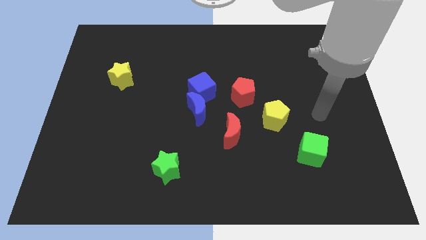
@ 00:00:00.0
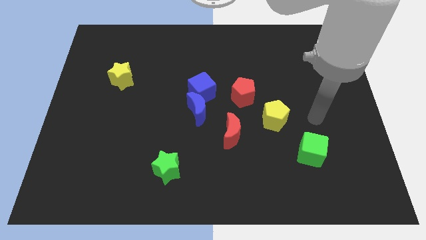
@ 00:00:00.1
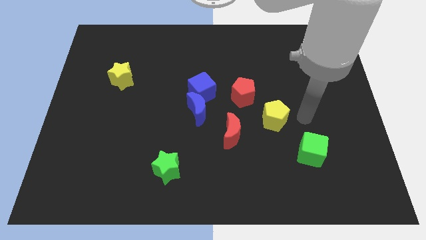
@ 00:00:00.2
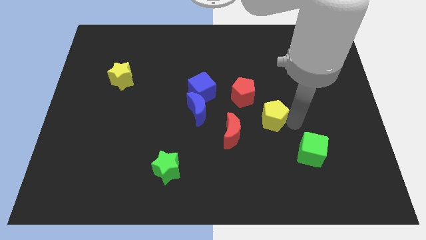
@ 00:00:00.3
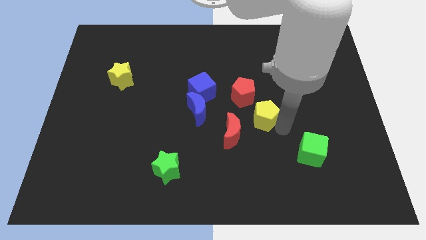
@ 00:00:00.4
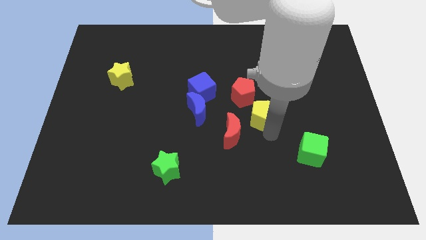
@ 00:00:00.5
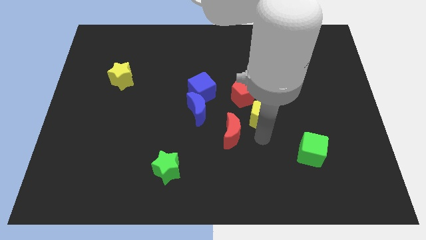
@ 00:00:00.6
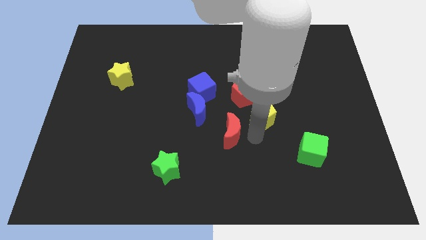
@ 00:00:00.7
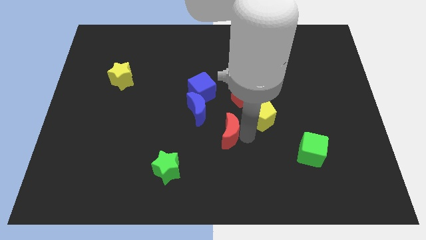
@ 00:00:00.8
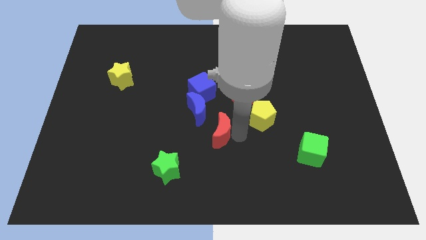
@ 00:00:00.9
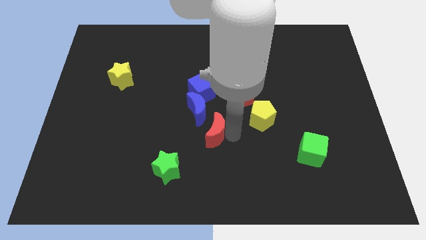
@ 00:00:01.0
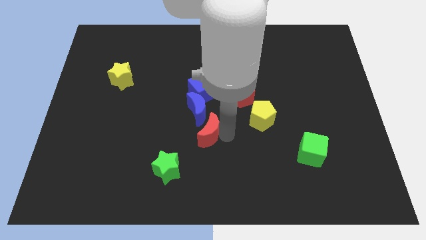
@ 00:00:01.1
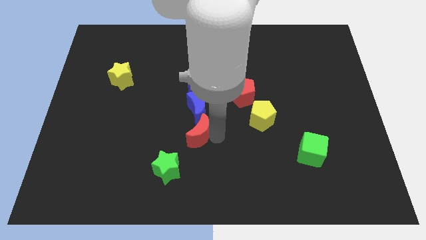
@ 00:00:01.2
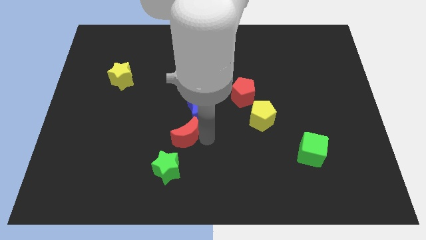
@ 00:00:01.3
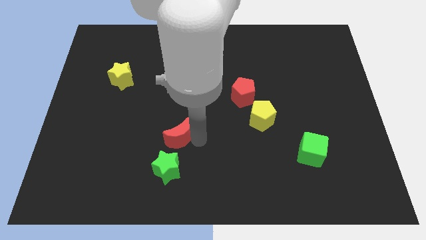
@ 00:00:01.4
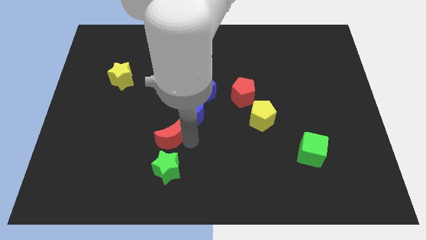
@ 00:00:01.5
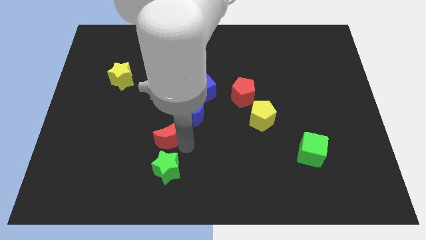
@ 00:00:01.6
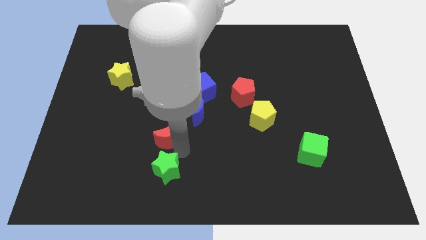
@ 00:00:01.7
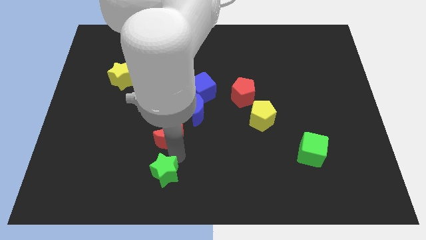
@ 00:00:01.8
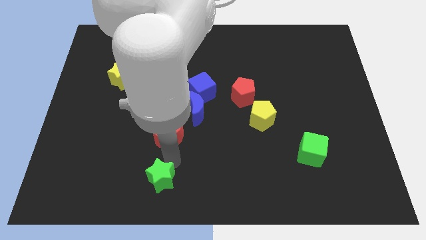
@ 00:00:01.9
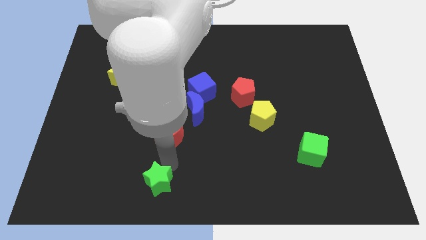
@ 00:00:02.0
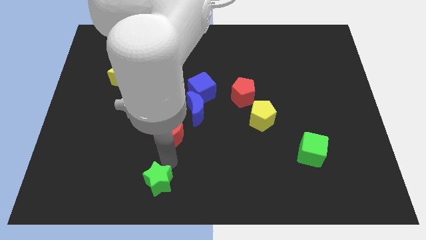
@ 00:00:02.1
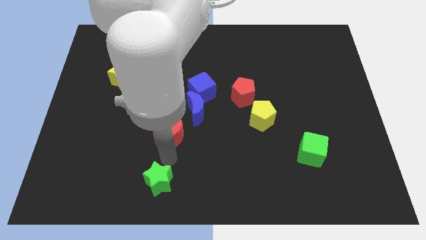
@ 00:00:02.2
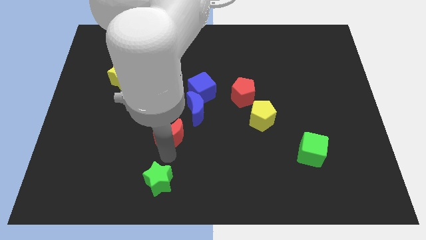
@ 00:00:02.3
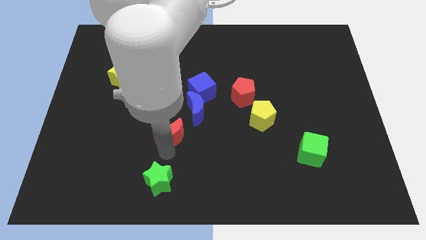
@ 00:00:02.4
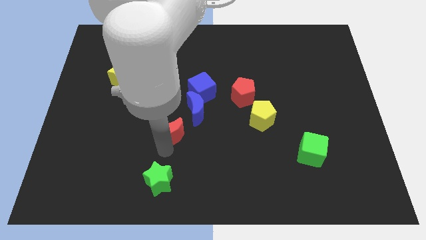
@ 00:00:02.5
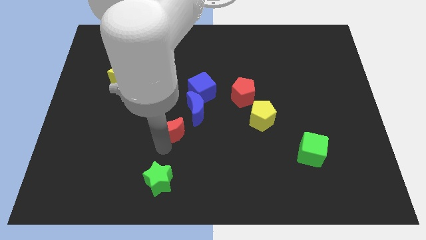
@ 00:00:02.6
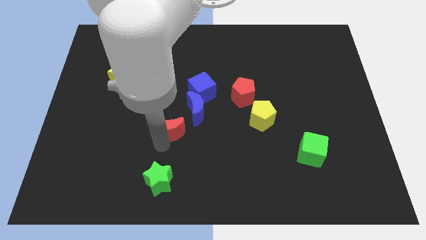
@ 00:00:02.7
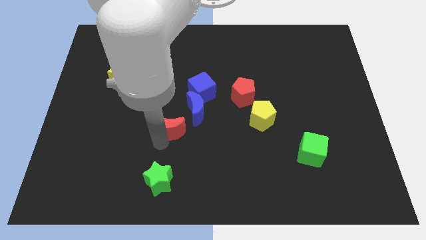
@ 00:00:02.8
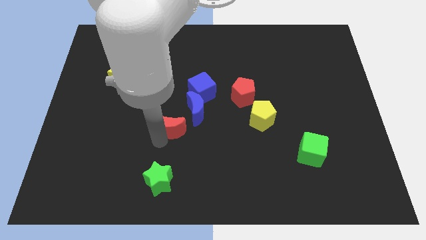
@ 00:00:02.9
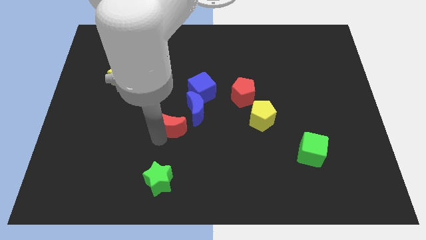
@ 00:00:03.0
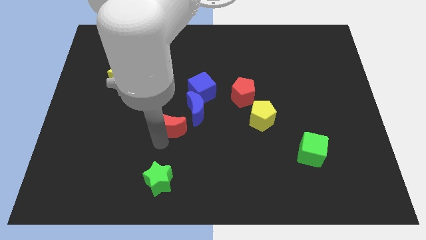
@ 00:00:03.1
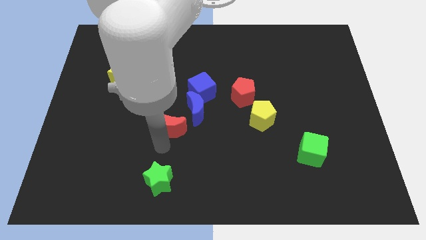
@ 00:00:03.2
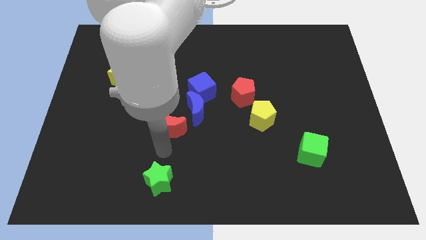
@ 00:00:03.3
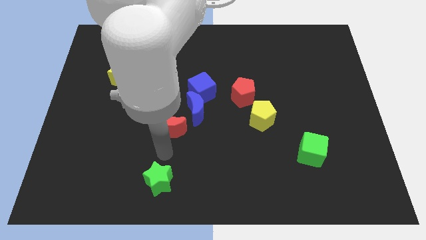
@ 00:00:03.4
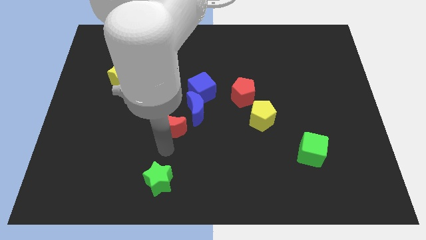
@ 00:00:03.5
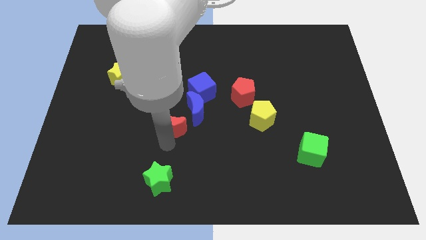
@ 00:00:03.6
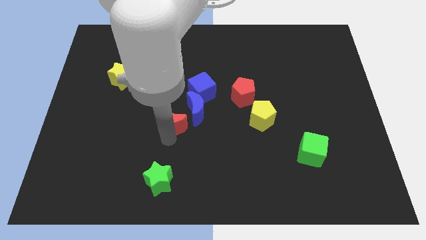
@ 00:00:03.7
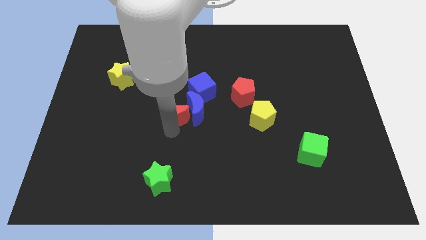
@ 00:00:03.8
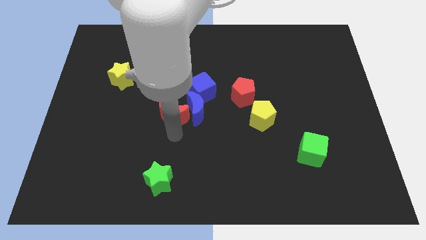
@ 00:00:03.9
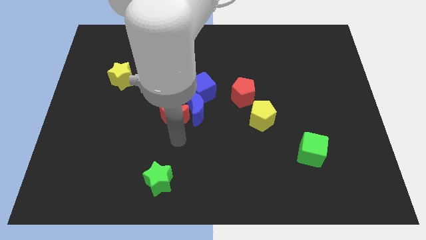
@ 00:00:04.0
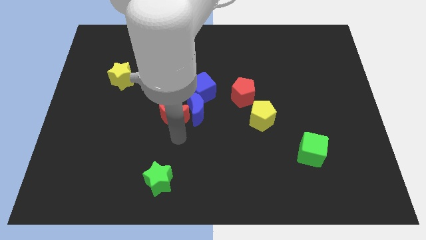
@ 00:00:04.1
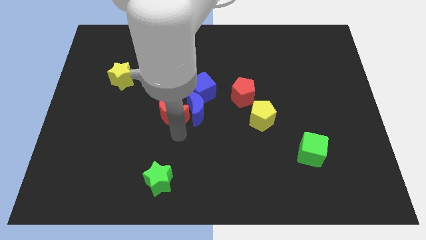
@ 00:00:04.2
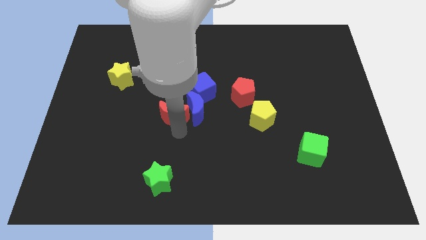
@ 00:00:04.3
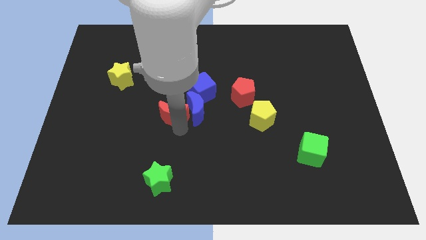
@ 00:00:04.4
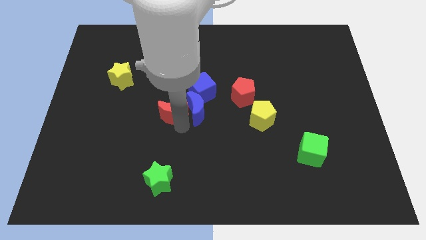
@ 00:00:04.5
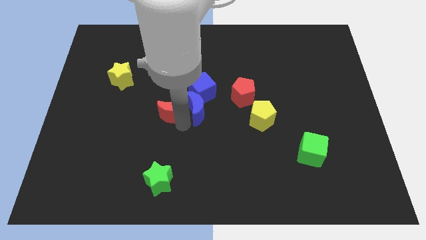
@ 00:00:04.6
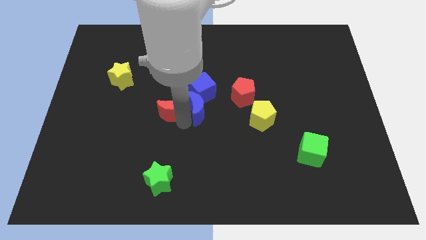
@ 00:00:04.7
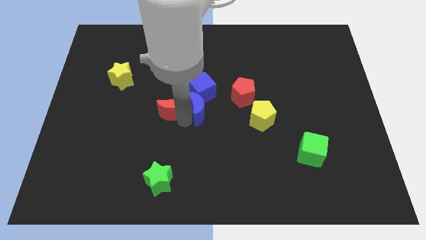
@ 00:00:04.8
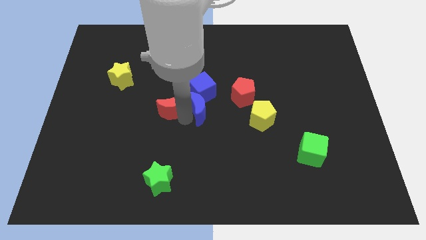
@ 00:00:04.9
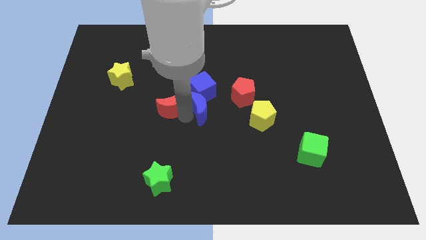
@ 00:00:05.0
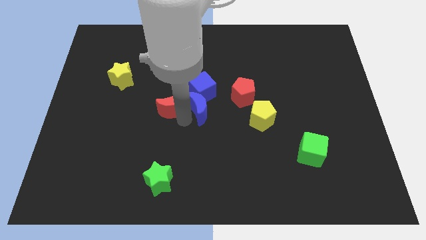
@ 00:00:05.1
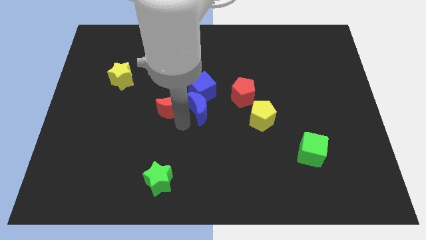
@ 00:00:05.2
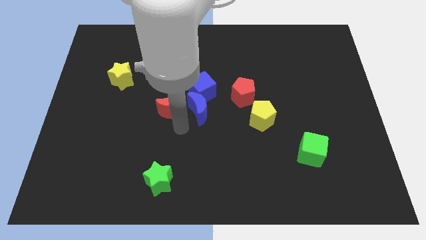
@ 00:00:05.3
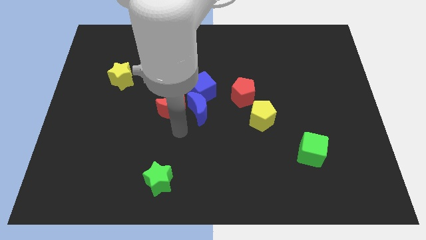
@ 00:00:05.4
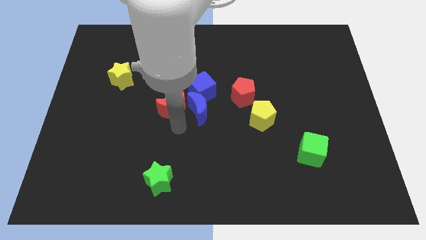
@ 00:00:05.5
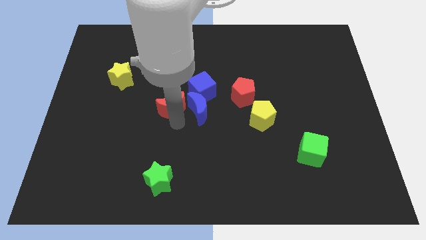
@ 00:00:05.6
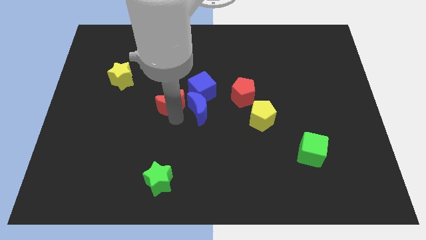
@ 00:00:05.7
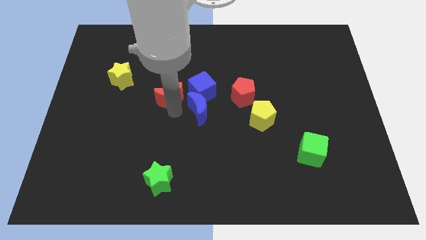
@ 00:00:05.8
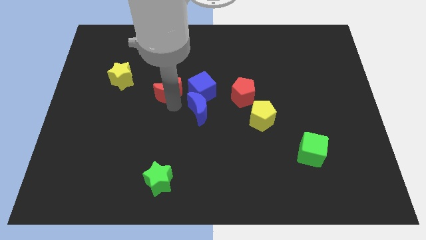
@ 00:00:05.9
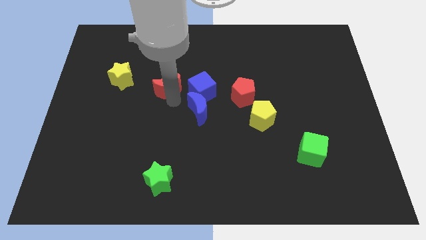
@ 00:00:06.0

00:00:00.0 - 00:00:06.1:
move the red moon up and left diagonally

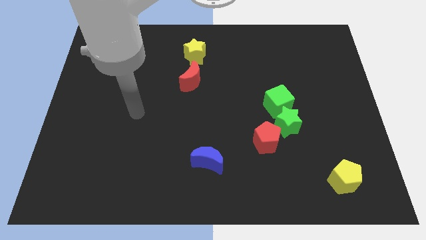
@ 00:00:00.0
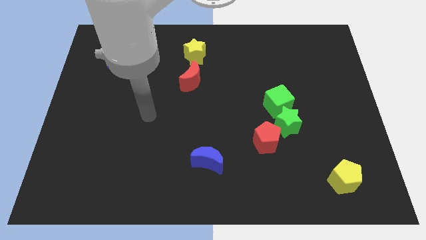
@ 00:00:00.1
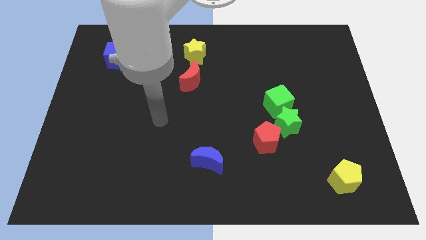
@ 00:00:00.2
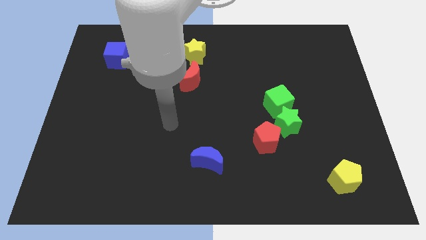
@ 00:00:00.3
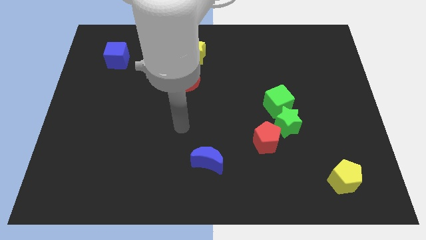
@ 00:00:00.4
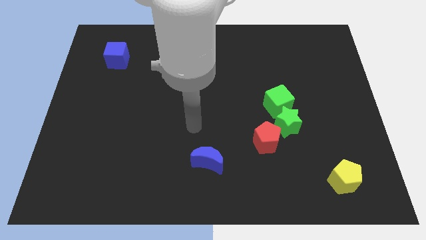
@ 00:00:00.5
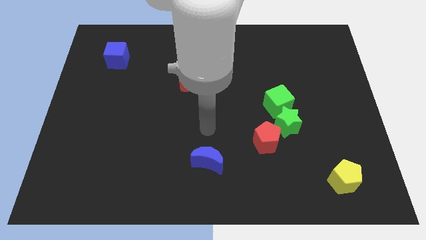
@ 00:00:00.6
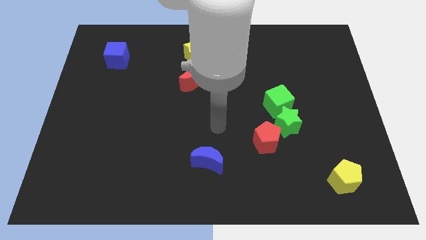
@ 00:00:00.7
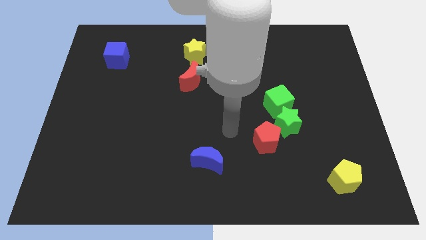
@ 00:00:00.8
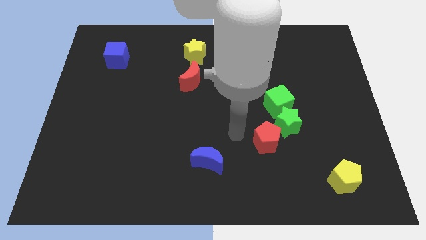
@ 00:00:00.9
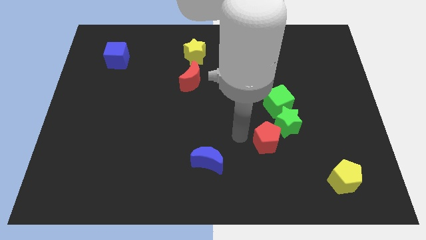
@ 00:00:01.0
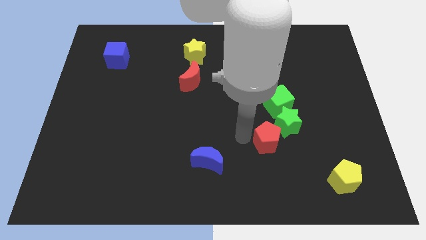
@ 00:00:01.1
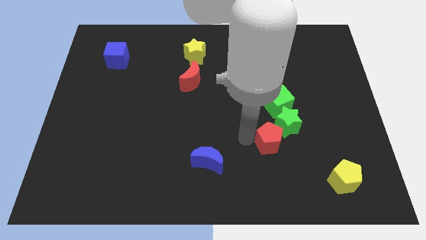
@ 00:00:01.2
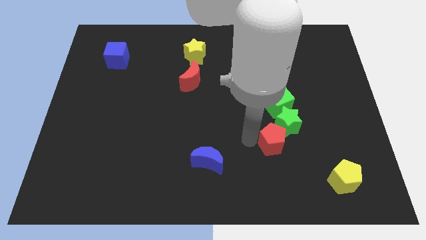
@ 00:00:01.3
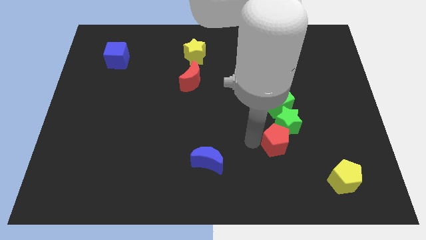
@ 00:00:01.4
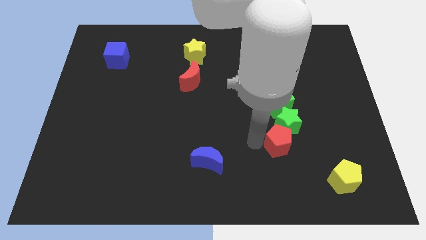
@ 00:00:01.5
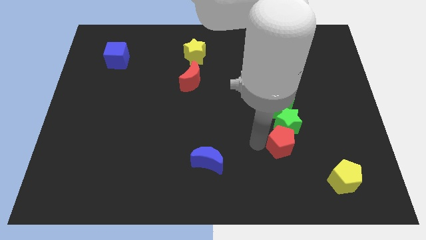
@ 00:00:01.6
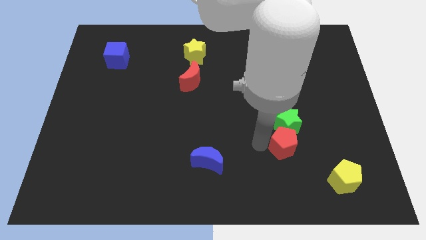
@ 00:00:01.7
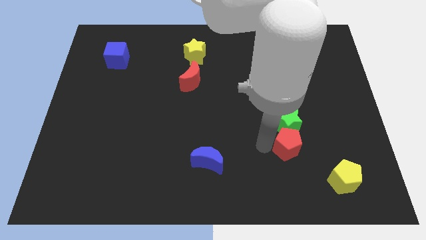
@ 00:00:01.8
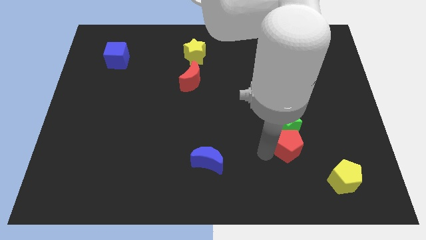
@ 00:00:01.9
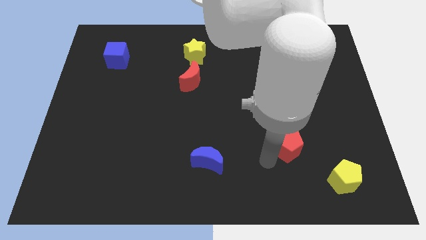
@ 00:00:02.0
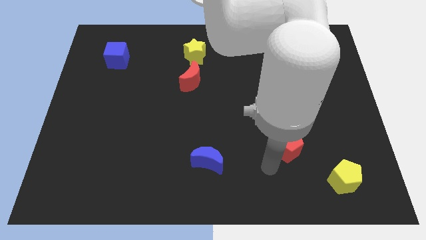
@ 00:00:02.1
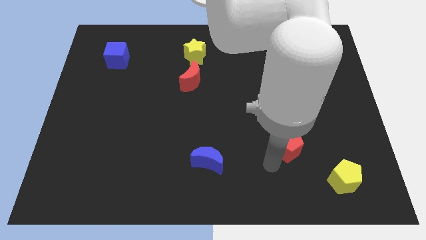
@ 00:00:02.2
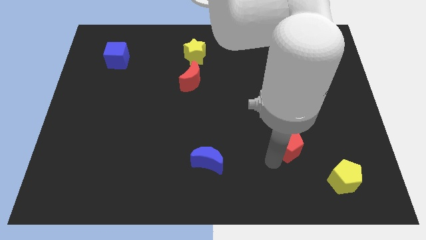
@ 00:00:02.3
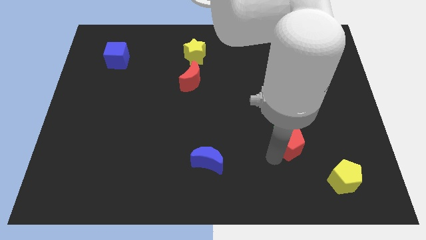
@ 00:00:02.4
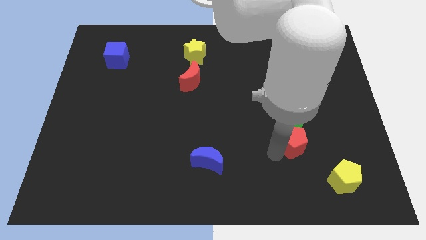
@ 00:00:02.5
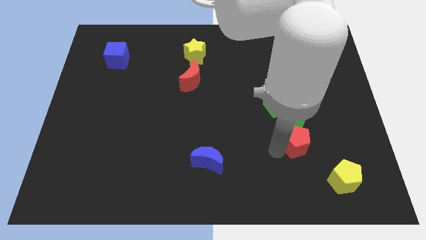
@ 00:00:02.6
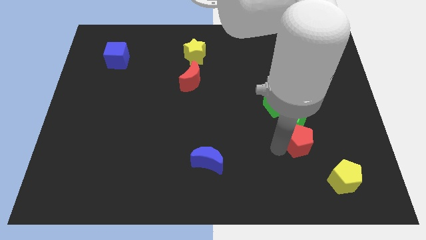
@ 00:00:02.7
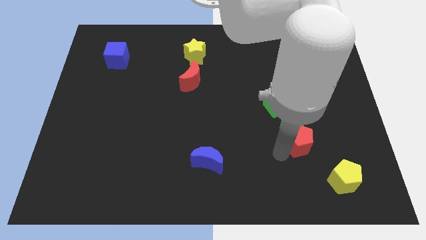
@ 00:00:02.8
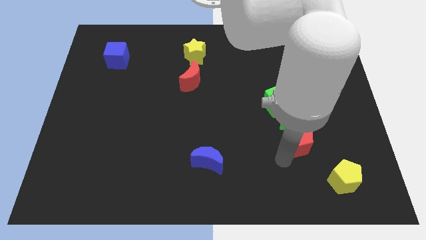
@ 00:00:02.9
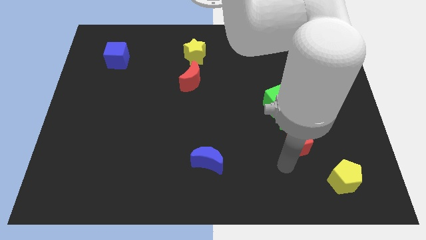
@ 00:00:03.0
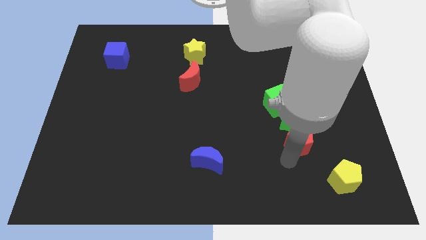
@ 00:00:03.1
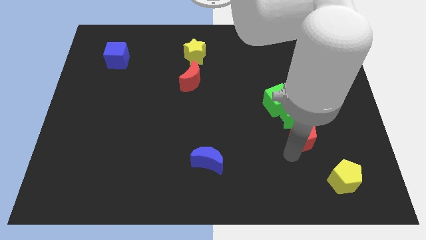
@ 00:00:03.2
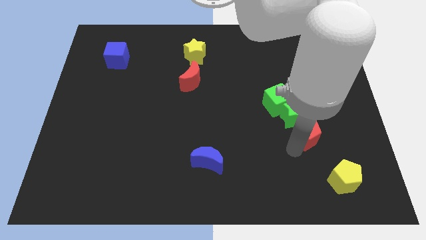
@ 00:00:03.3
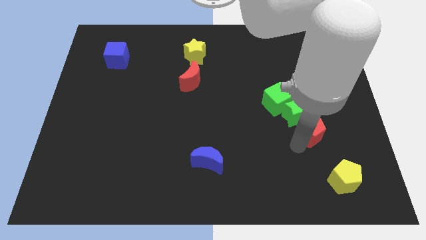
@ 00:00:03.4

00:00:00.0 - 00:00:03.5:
move the red pentagon a little bit diagonally upwards and to the right
